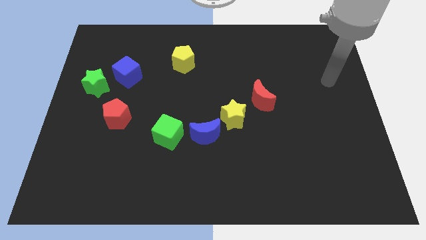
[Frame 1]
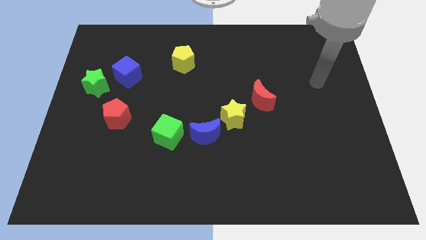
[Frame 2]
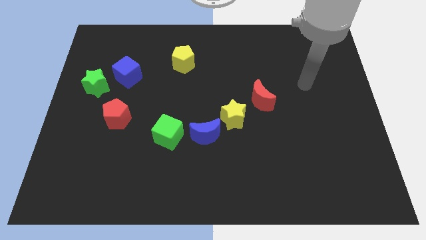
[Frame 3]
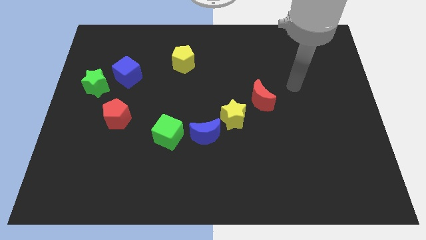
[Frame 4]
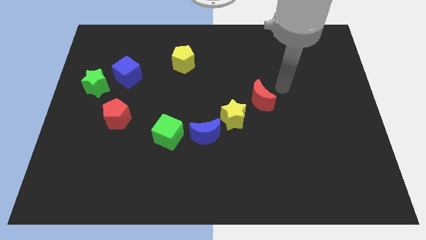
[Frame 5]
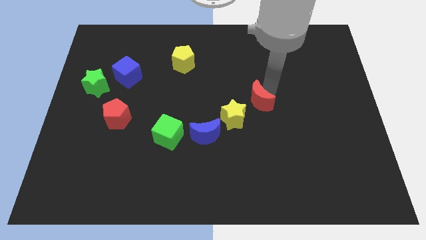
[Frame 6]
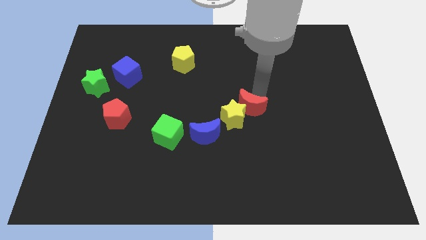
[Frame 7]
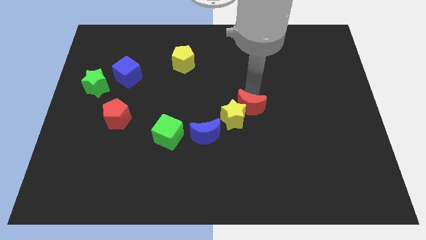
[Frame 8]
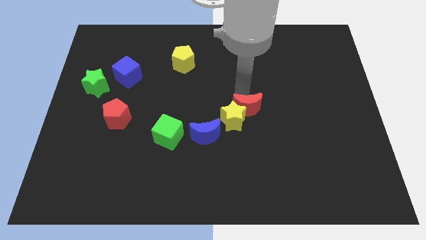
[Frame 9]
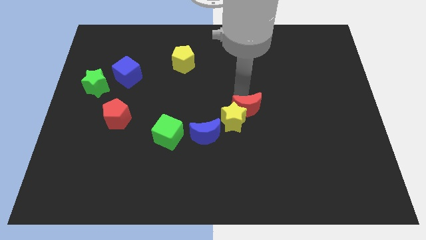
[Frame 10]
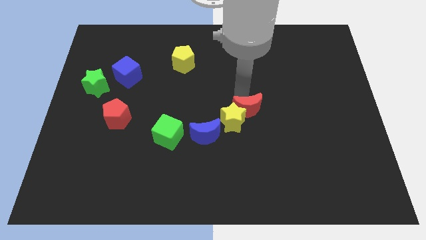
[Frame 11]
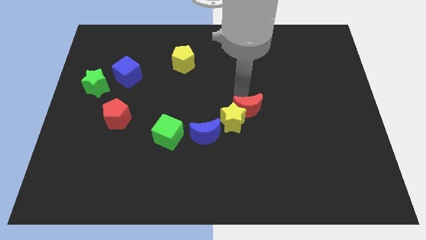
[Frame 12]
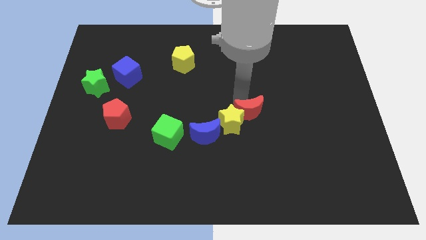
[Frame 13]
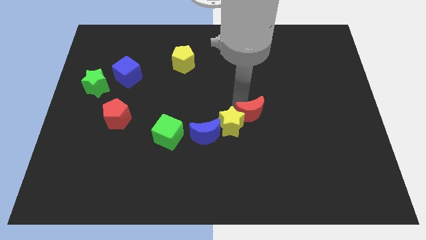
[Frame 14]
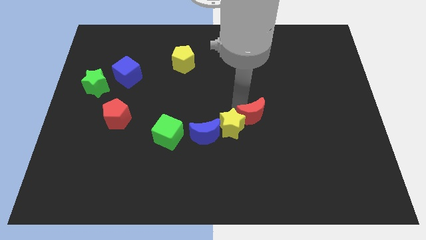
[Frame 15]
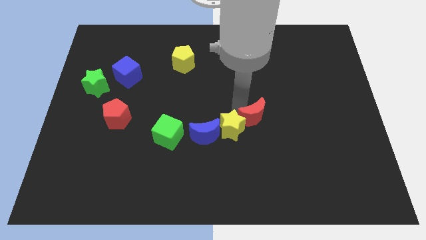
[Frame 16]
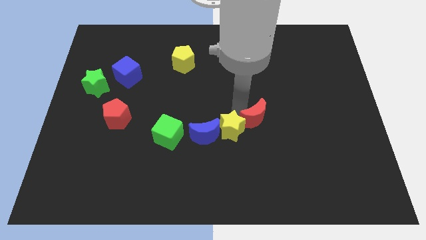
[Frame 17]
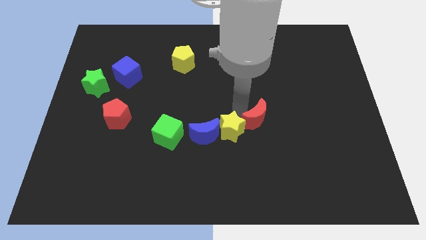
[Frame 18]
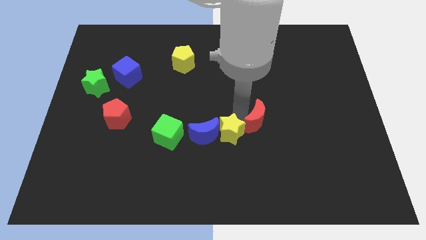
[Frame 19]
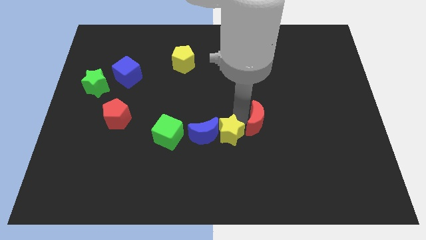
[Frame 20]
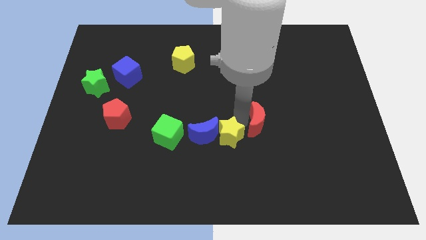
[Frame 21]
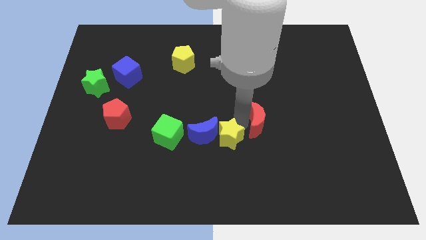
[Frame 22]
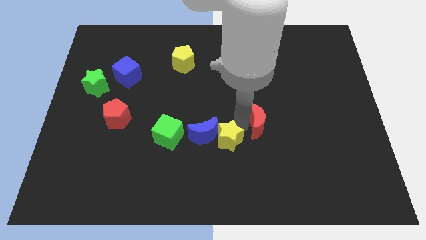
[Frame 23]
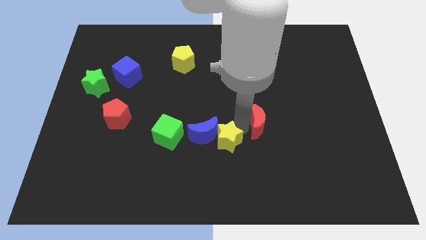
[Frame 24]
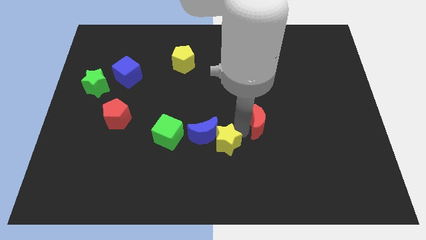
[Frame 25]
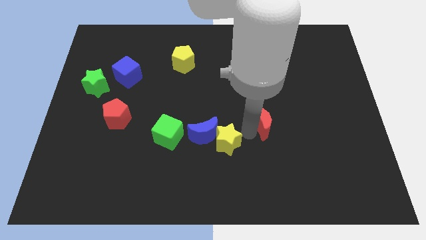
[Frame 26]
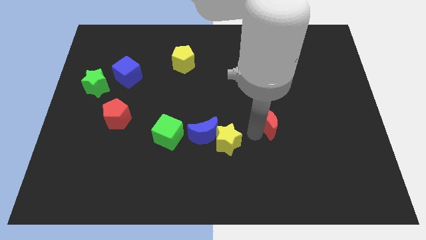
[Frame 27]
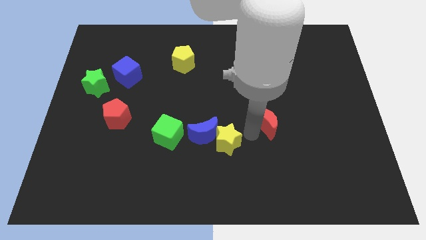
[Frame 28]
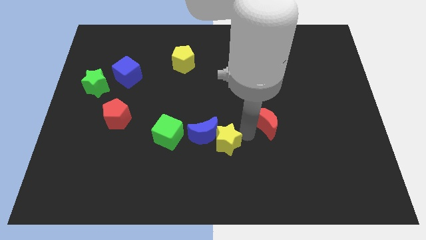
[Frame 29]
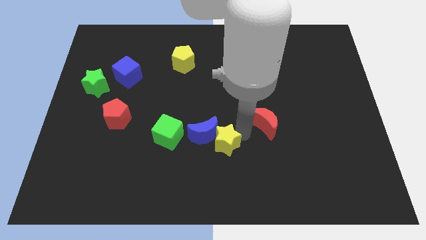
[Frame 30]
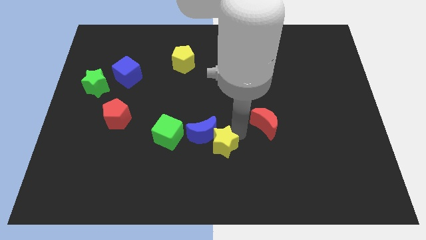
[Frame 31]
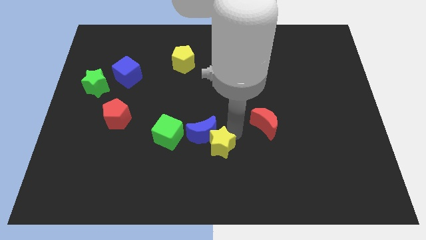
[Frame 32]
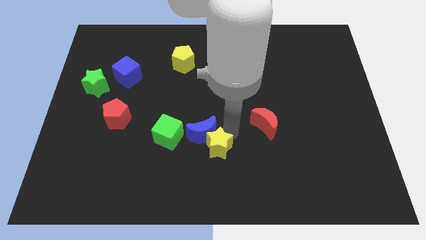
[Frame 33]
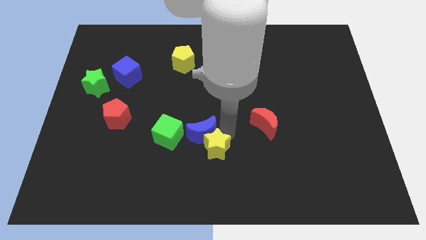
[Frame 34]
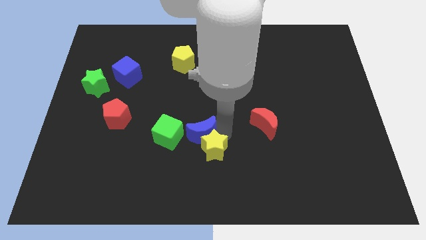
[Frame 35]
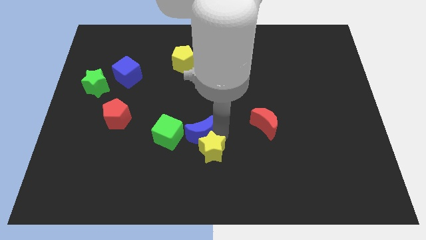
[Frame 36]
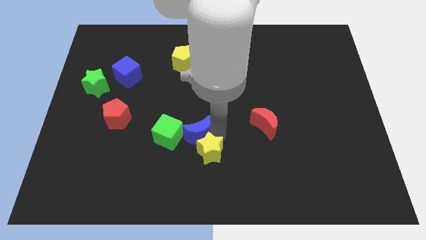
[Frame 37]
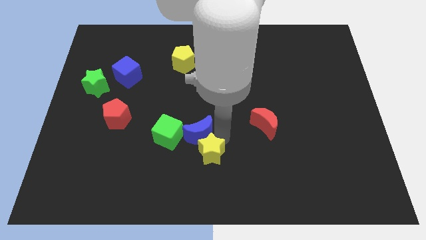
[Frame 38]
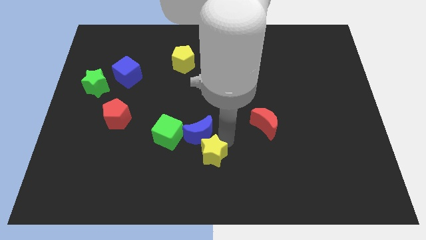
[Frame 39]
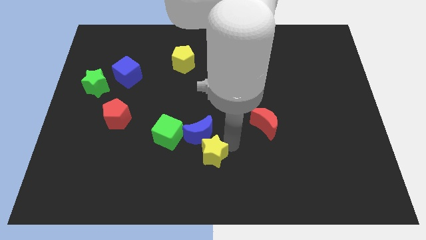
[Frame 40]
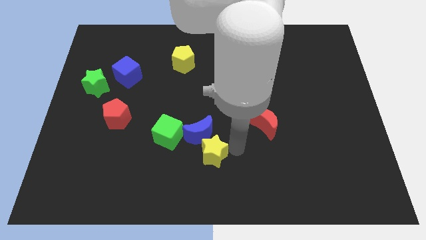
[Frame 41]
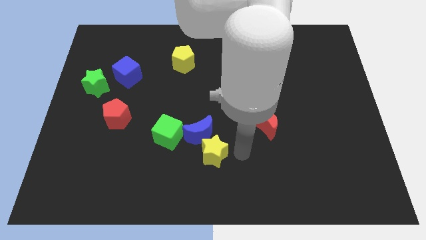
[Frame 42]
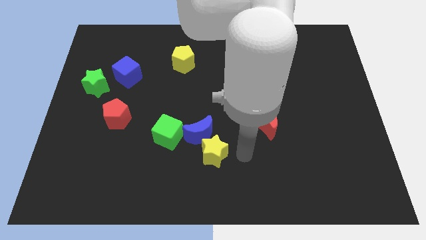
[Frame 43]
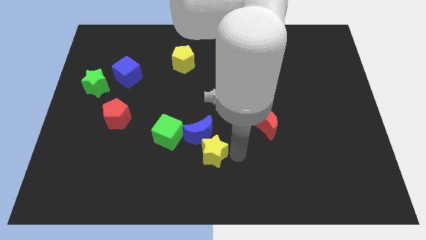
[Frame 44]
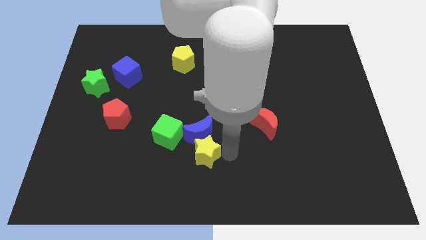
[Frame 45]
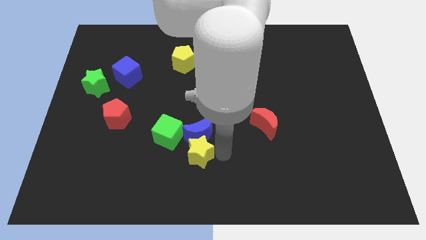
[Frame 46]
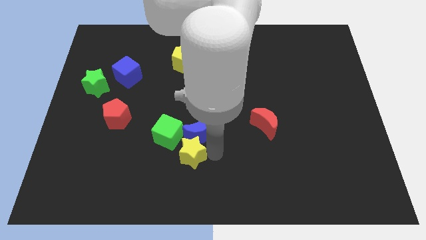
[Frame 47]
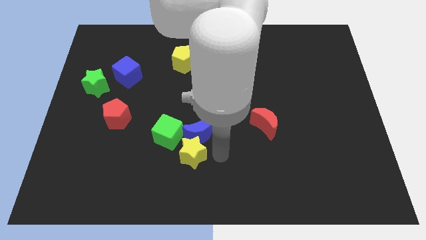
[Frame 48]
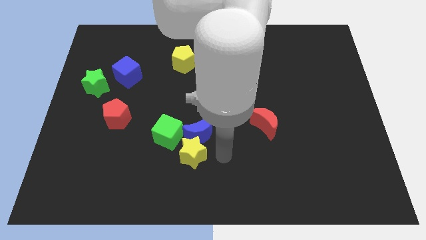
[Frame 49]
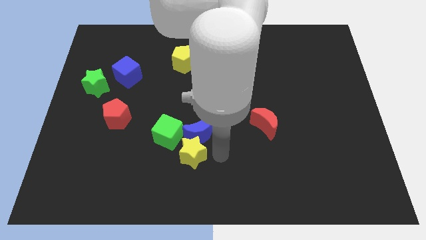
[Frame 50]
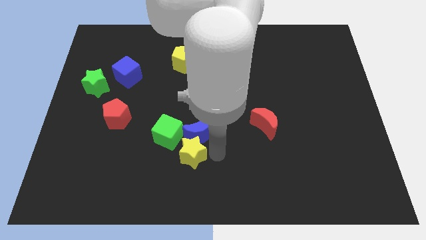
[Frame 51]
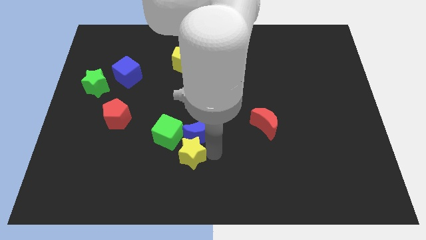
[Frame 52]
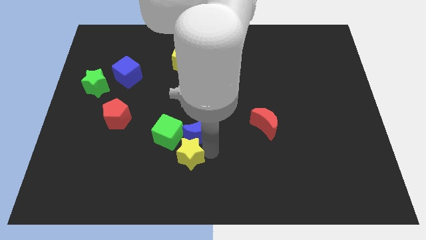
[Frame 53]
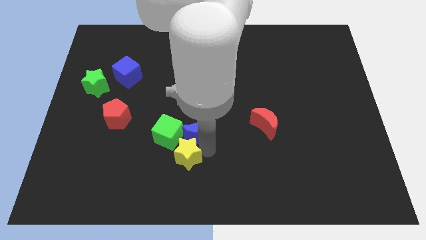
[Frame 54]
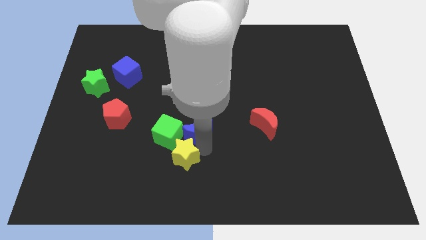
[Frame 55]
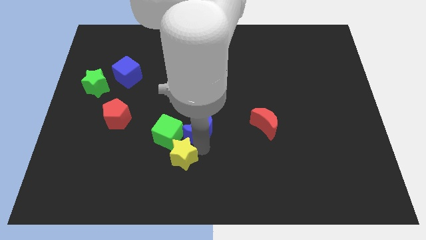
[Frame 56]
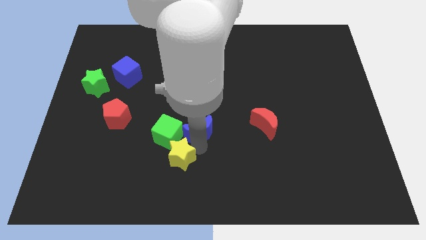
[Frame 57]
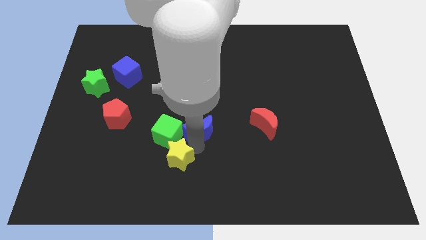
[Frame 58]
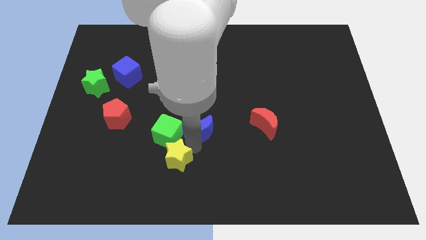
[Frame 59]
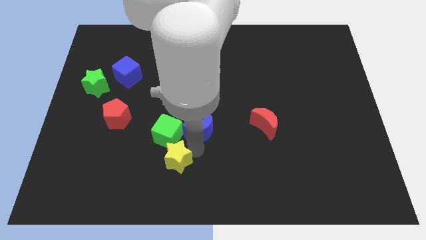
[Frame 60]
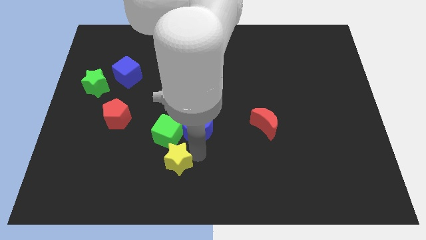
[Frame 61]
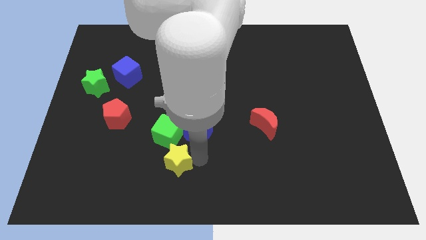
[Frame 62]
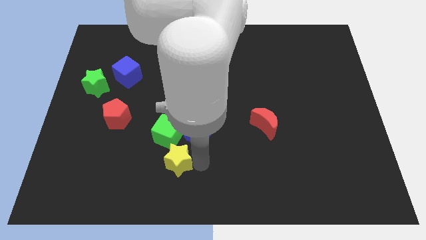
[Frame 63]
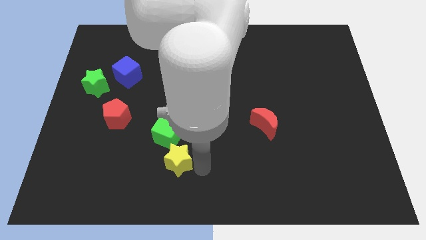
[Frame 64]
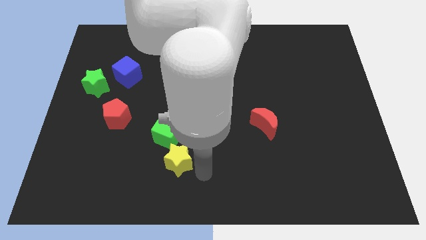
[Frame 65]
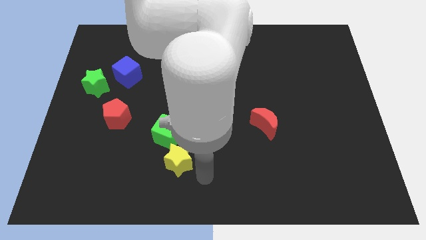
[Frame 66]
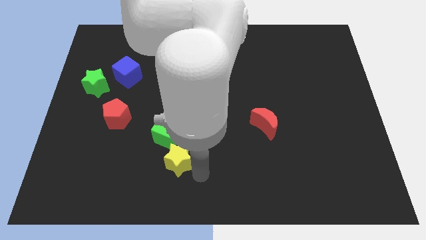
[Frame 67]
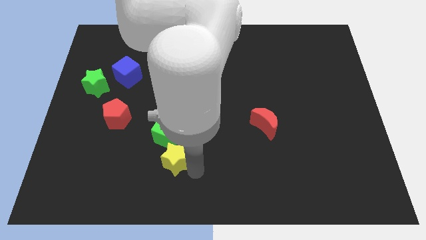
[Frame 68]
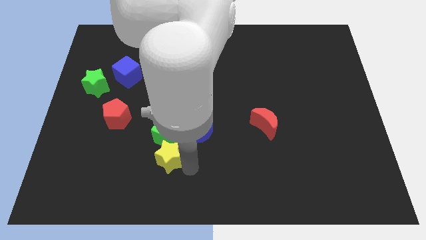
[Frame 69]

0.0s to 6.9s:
put the yellow star to the bottom left of the green cube

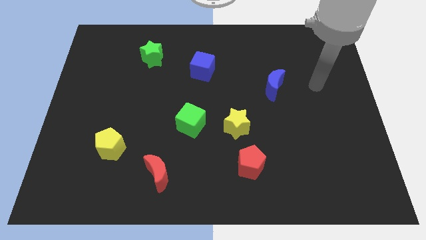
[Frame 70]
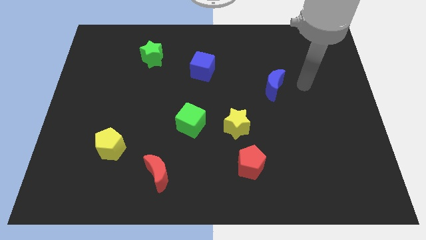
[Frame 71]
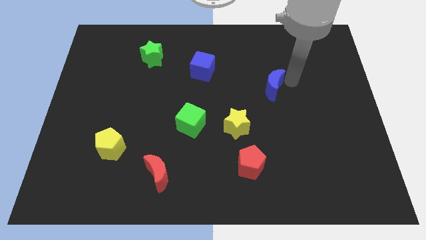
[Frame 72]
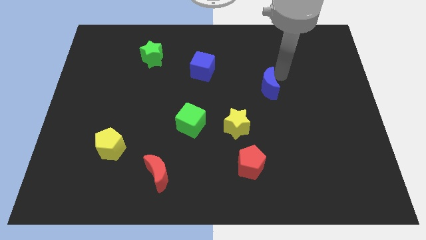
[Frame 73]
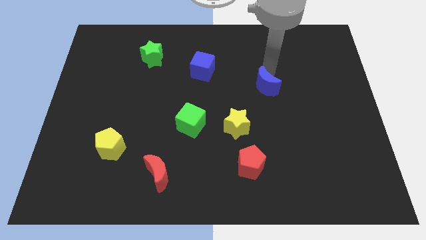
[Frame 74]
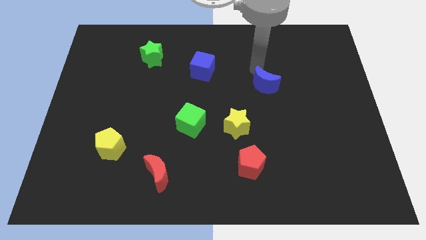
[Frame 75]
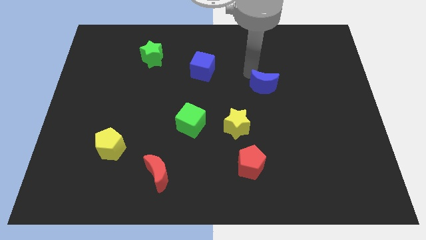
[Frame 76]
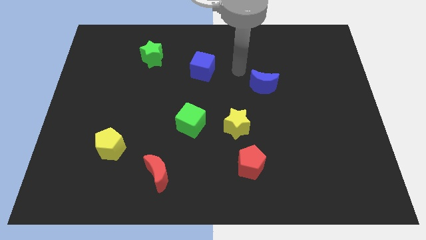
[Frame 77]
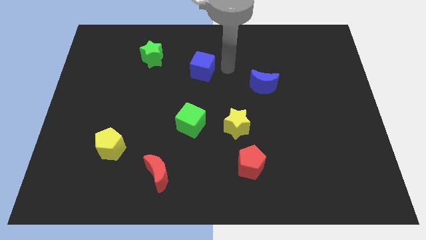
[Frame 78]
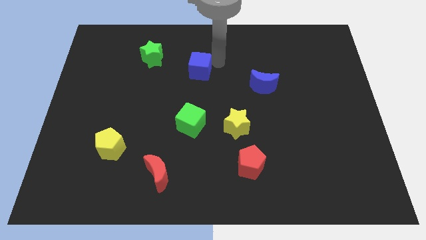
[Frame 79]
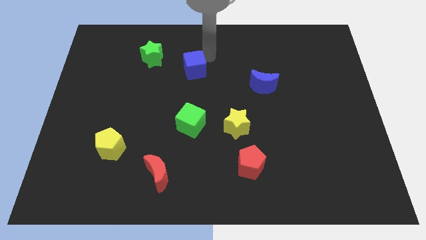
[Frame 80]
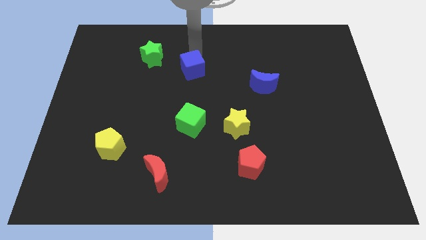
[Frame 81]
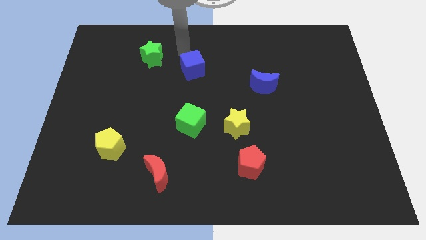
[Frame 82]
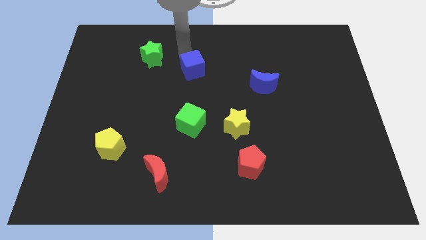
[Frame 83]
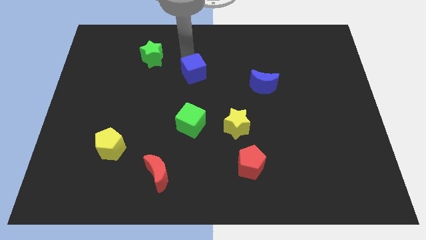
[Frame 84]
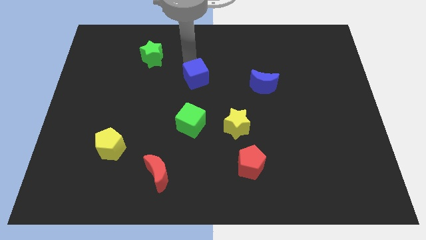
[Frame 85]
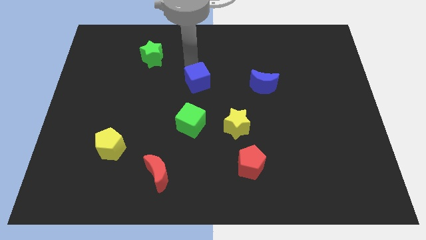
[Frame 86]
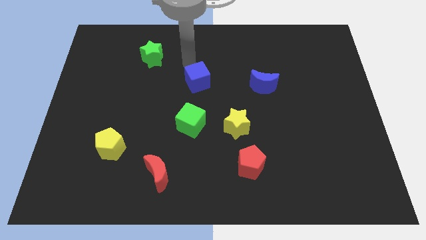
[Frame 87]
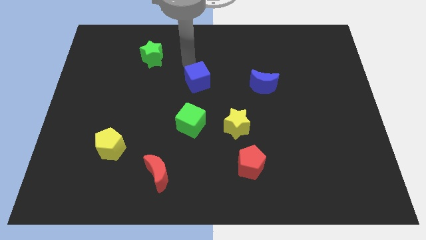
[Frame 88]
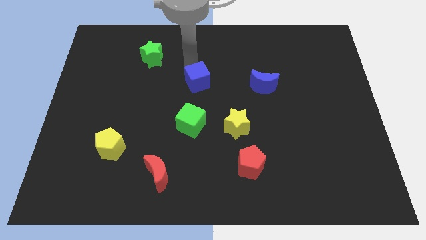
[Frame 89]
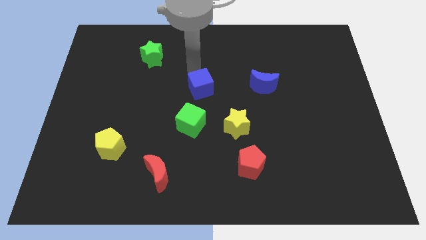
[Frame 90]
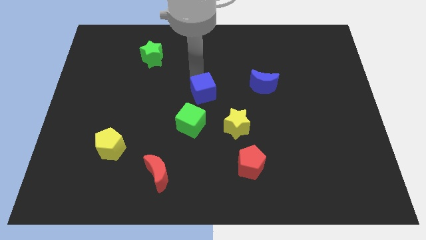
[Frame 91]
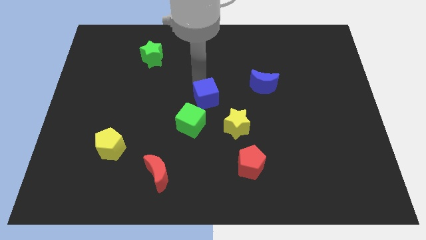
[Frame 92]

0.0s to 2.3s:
push the blue cube diagonally up and to the left of the yellow star
